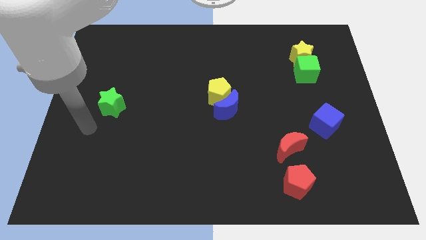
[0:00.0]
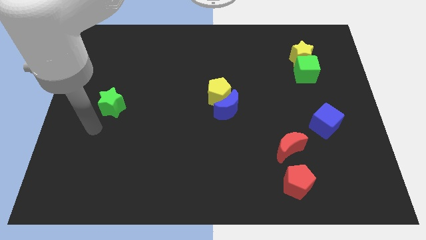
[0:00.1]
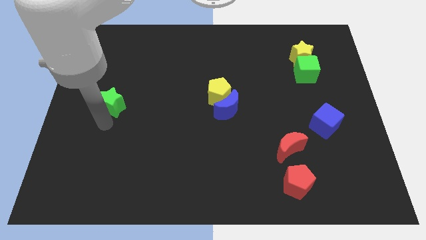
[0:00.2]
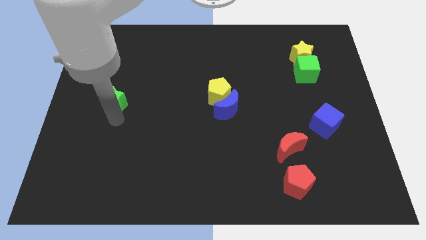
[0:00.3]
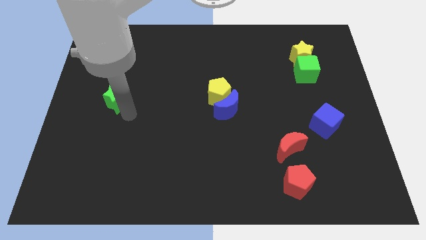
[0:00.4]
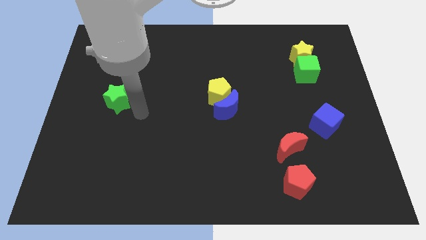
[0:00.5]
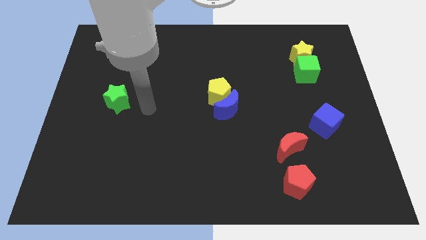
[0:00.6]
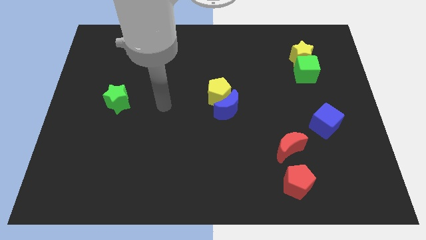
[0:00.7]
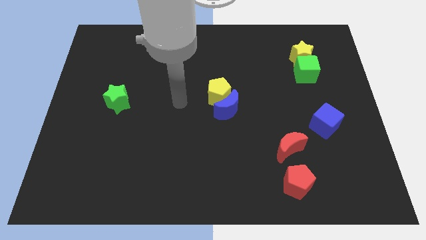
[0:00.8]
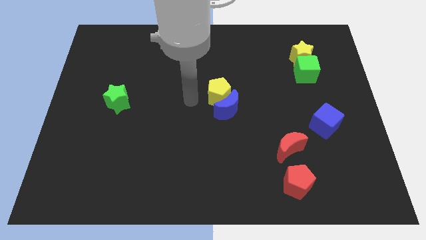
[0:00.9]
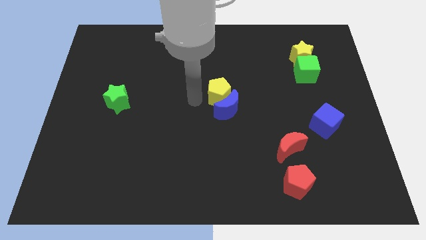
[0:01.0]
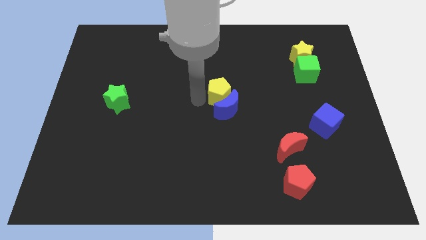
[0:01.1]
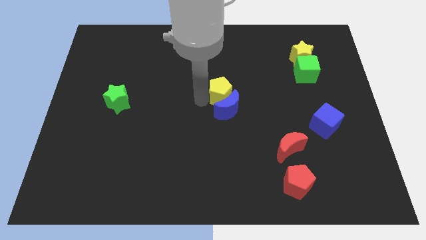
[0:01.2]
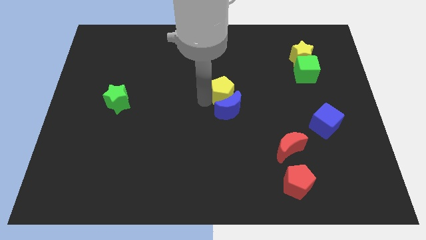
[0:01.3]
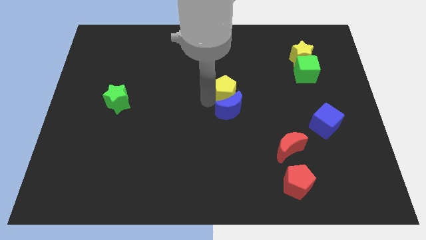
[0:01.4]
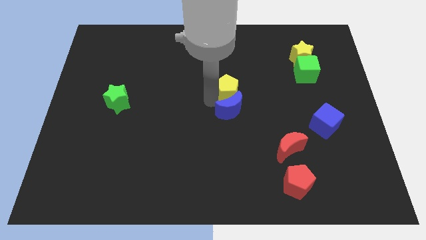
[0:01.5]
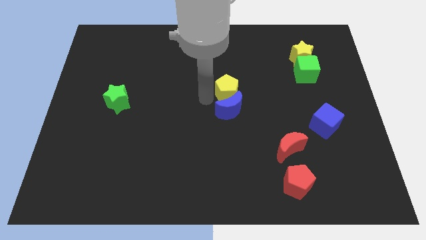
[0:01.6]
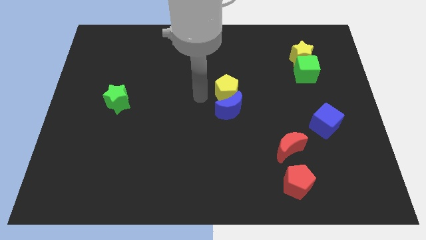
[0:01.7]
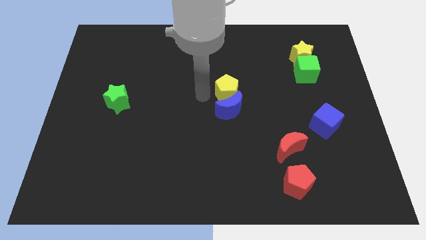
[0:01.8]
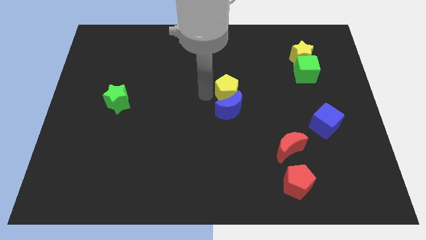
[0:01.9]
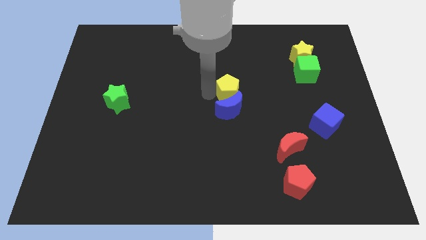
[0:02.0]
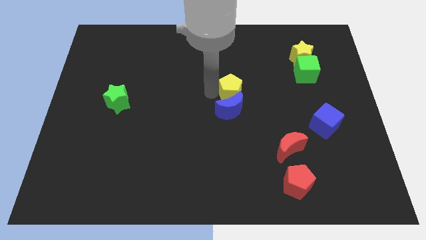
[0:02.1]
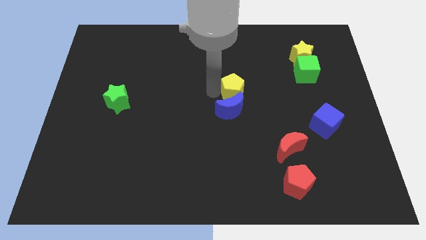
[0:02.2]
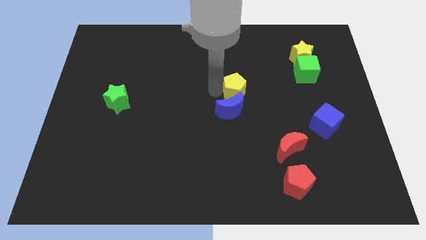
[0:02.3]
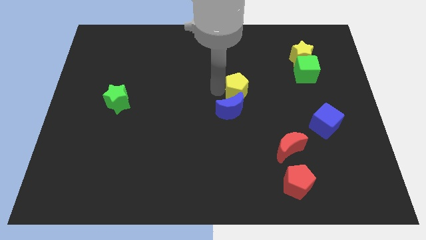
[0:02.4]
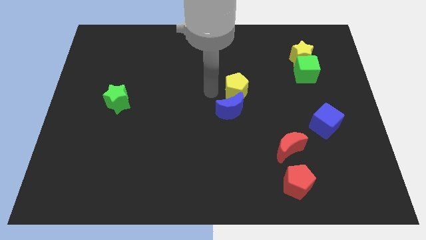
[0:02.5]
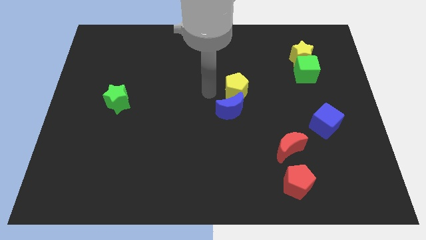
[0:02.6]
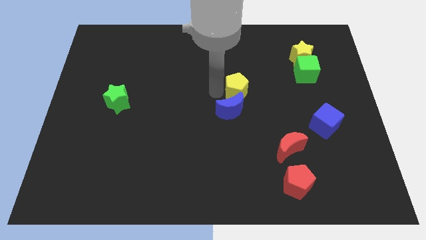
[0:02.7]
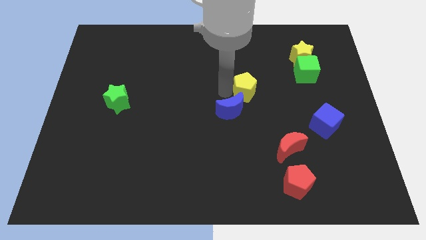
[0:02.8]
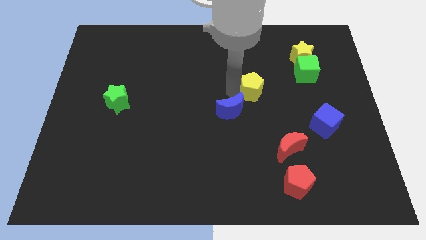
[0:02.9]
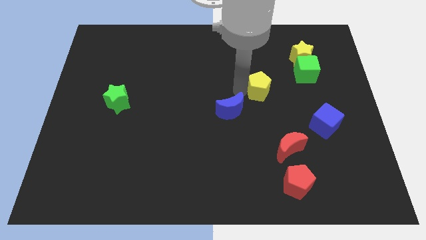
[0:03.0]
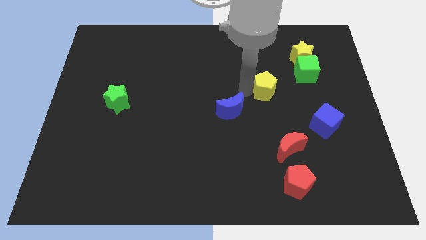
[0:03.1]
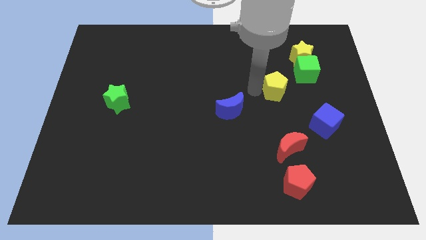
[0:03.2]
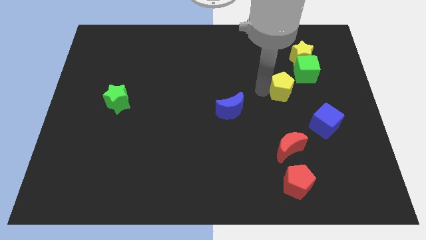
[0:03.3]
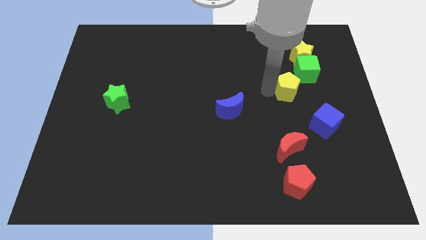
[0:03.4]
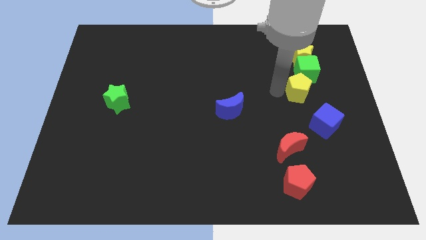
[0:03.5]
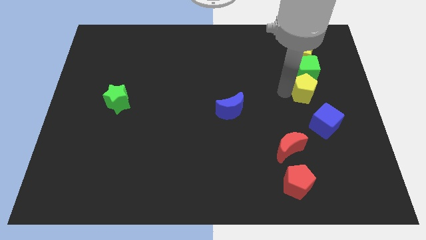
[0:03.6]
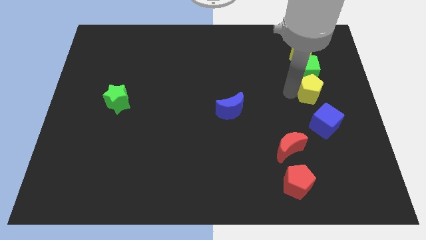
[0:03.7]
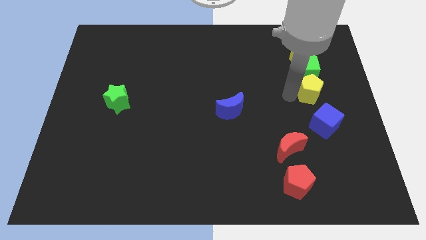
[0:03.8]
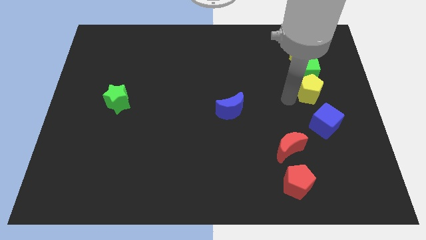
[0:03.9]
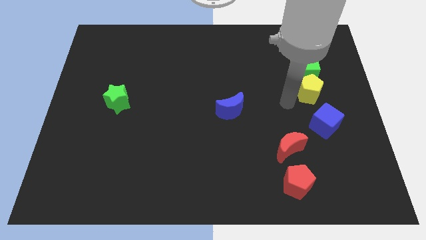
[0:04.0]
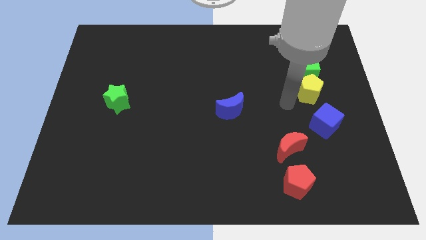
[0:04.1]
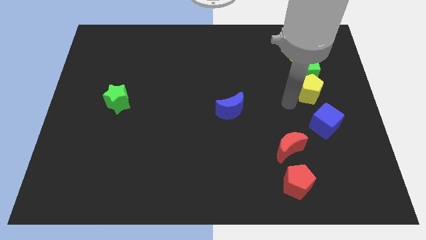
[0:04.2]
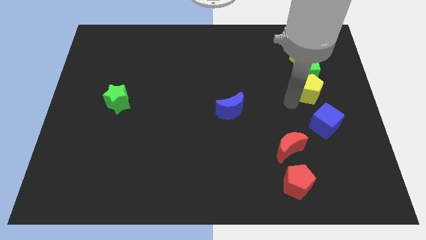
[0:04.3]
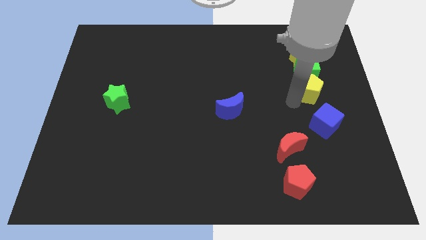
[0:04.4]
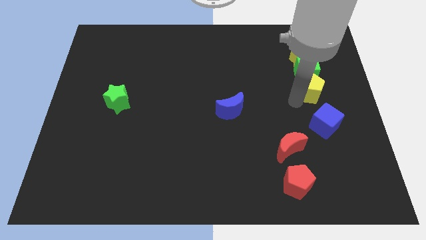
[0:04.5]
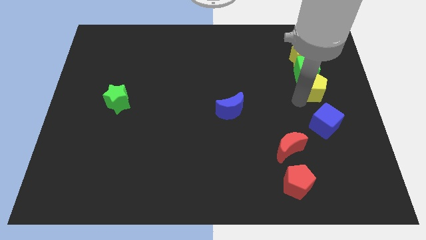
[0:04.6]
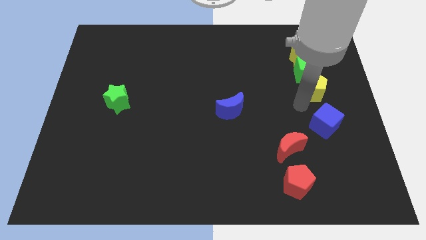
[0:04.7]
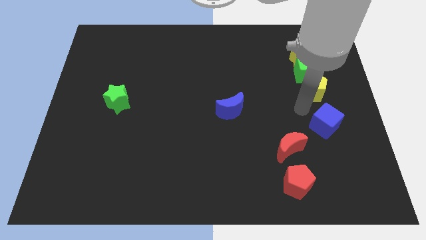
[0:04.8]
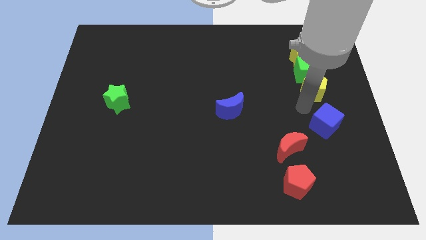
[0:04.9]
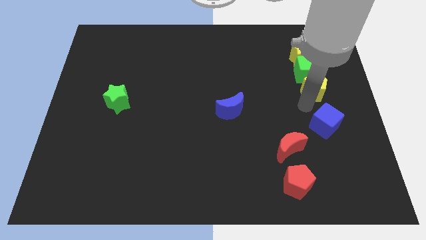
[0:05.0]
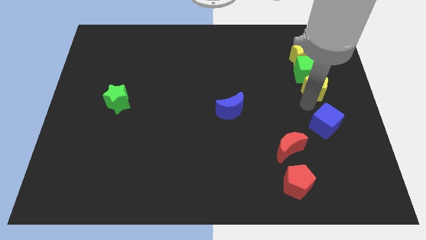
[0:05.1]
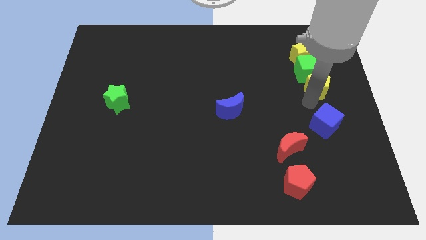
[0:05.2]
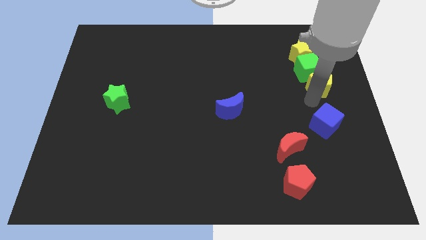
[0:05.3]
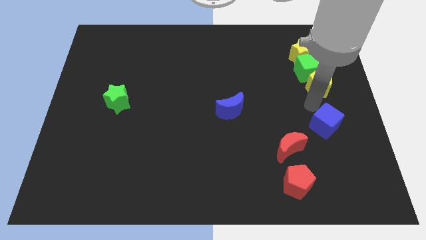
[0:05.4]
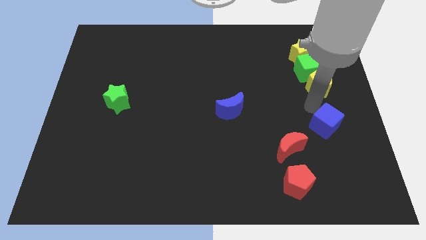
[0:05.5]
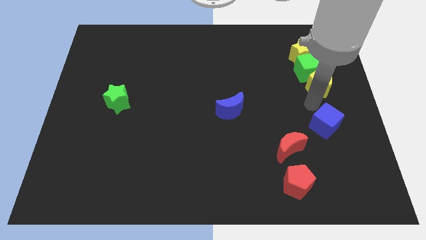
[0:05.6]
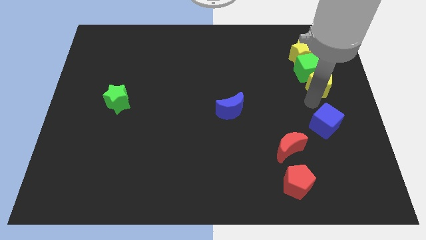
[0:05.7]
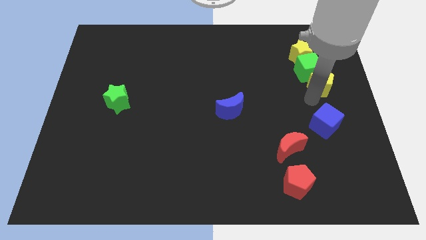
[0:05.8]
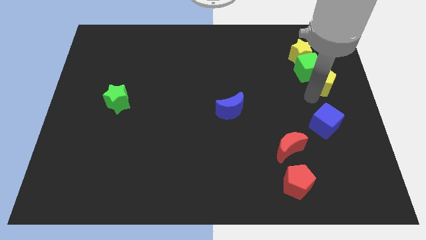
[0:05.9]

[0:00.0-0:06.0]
put the yellow pentagon to the bottom right of the yellow star
